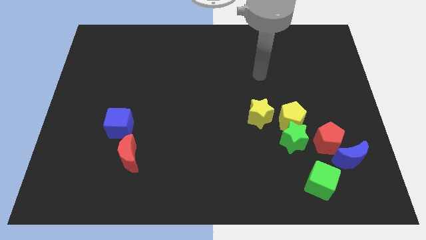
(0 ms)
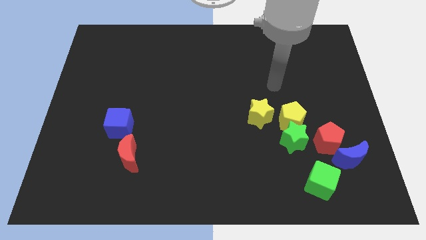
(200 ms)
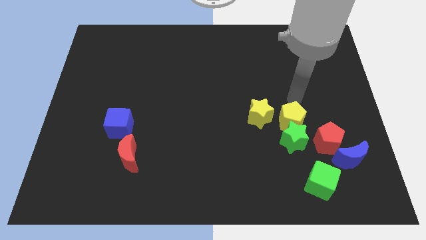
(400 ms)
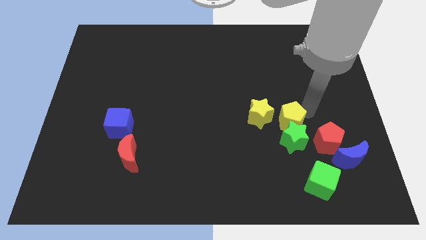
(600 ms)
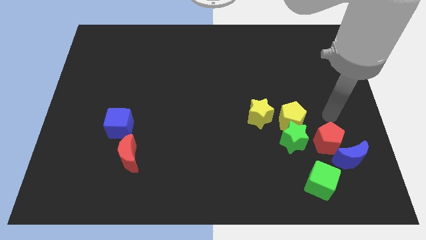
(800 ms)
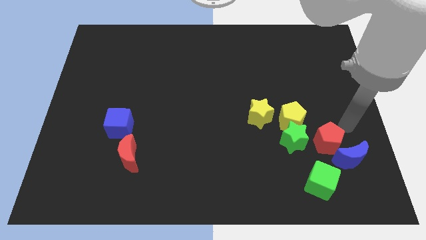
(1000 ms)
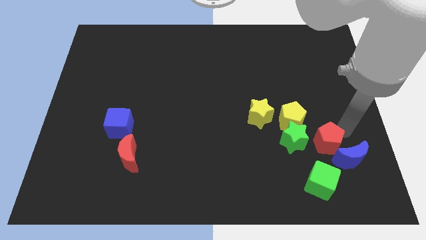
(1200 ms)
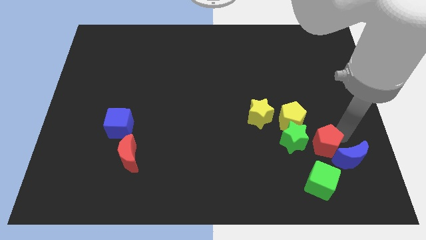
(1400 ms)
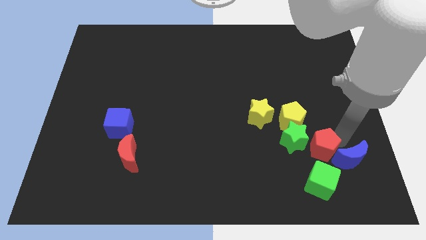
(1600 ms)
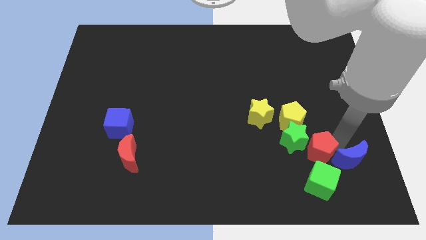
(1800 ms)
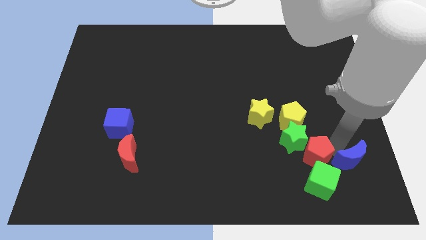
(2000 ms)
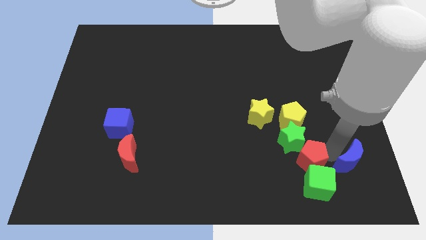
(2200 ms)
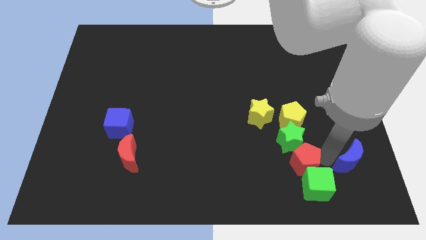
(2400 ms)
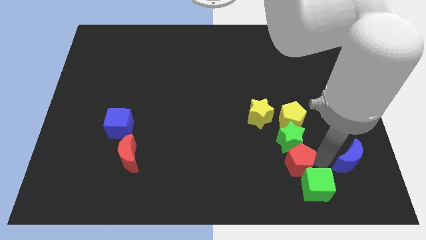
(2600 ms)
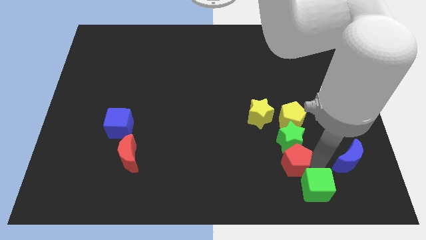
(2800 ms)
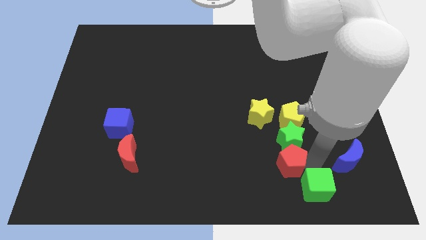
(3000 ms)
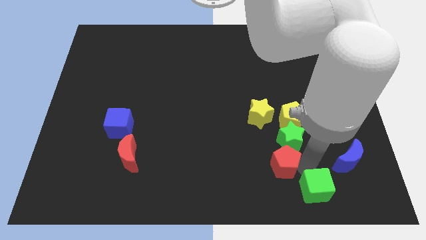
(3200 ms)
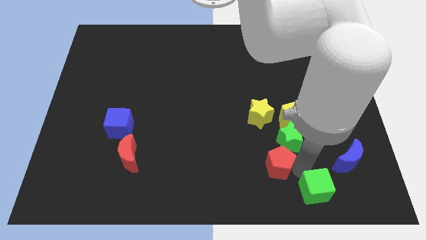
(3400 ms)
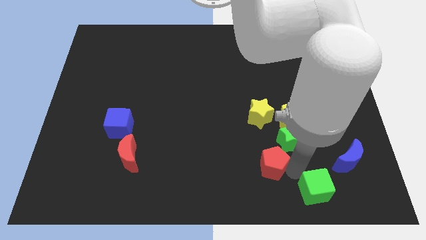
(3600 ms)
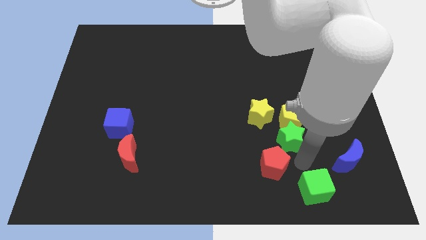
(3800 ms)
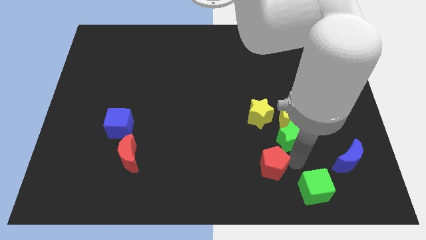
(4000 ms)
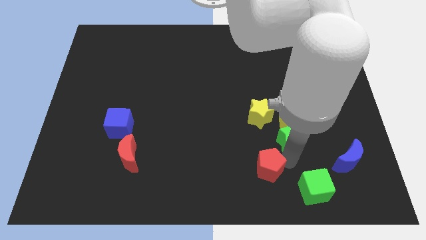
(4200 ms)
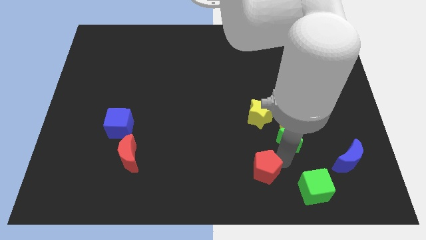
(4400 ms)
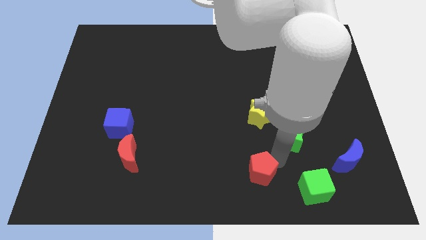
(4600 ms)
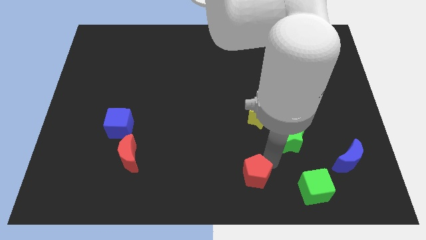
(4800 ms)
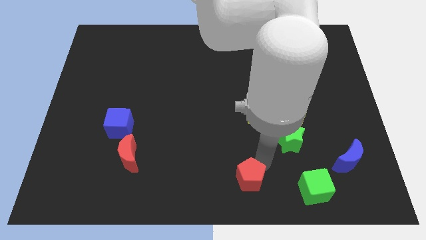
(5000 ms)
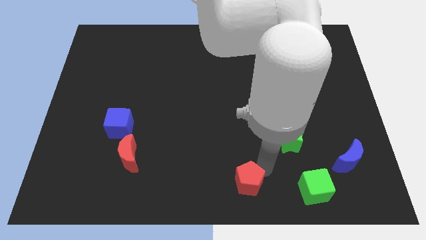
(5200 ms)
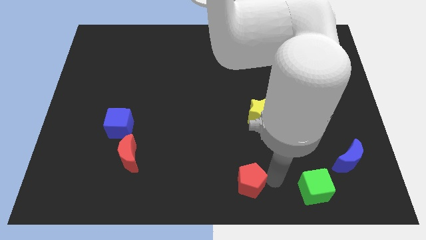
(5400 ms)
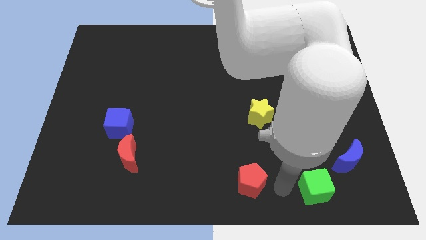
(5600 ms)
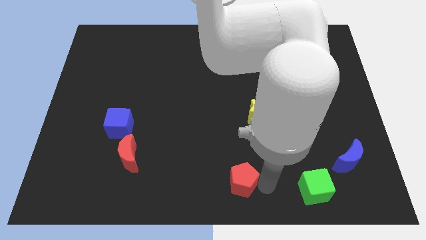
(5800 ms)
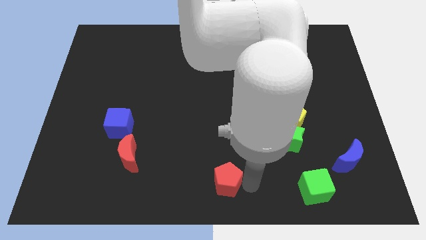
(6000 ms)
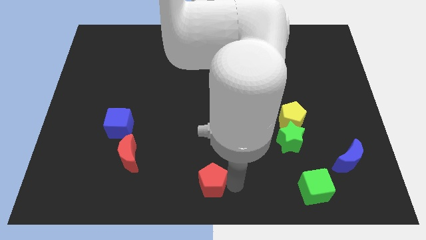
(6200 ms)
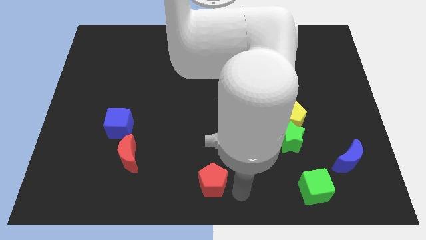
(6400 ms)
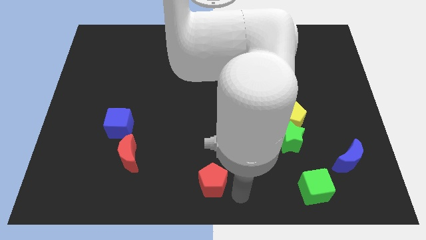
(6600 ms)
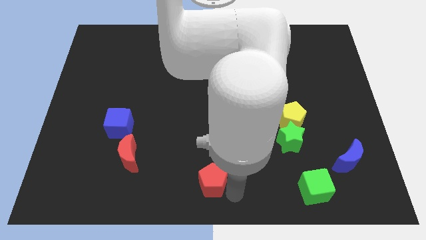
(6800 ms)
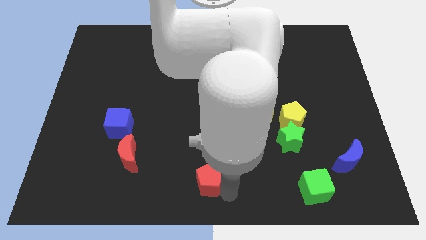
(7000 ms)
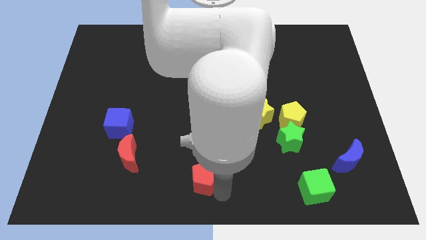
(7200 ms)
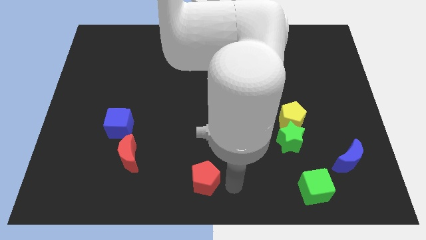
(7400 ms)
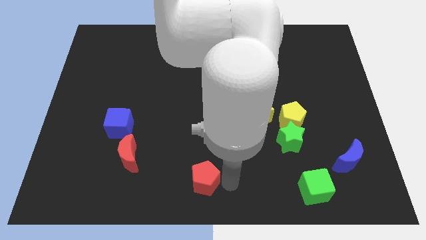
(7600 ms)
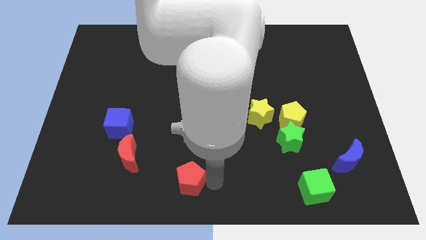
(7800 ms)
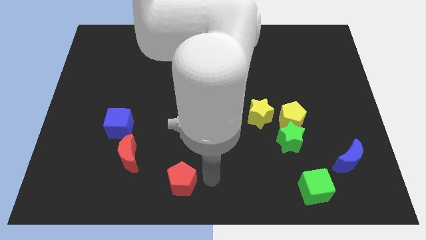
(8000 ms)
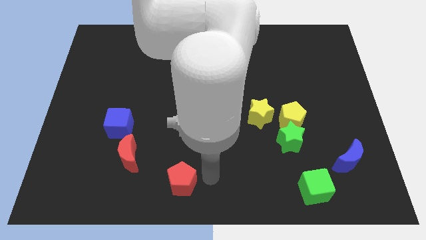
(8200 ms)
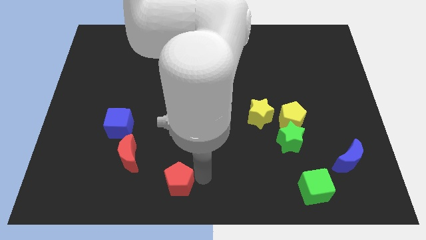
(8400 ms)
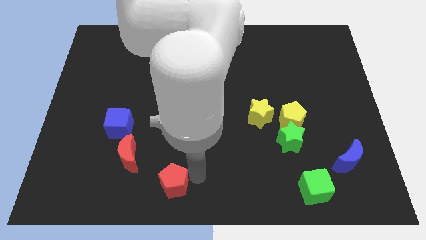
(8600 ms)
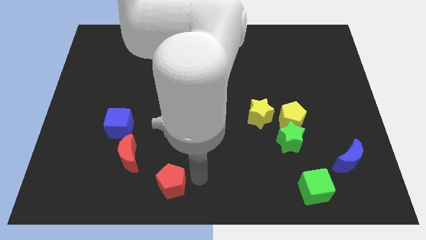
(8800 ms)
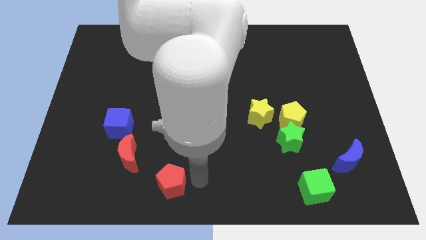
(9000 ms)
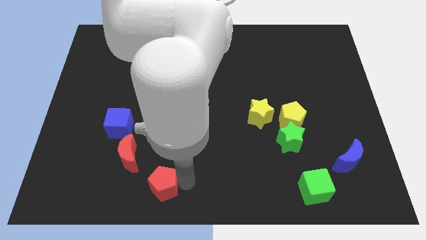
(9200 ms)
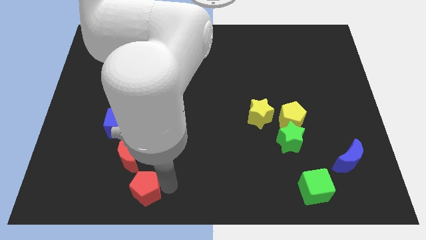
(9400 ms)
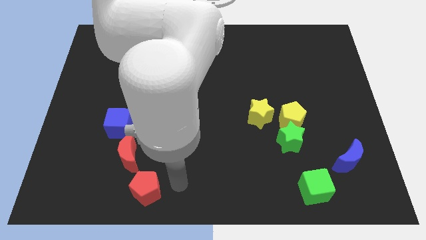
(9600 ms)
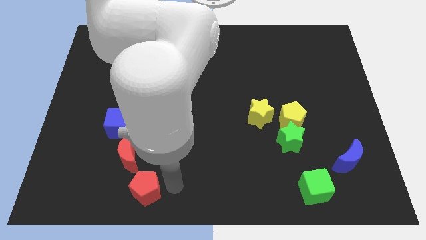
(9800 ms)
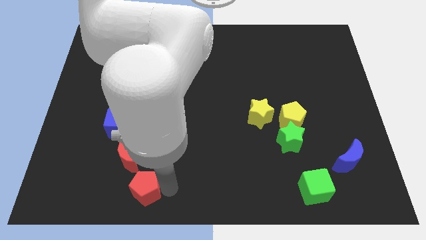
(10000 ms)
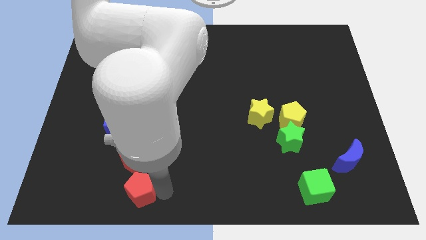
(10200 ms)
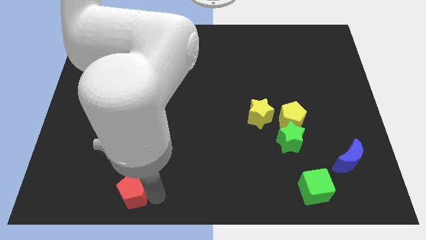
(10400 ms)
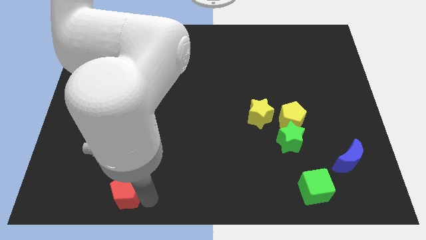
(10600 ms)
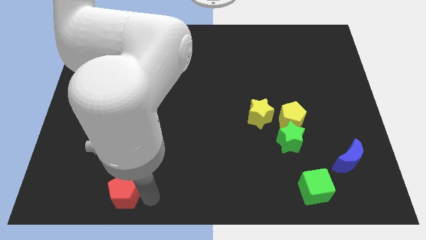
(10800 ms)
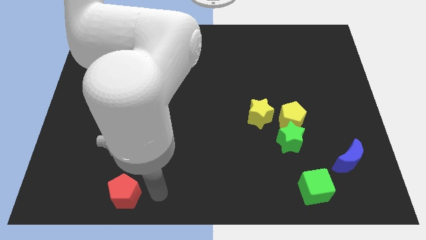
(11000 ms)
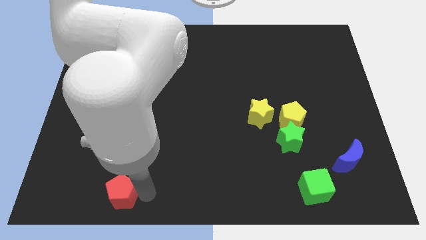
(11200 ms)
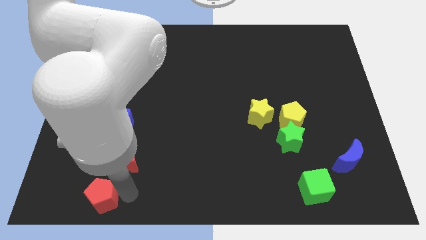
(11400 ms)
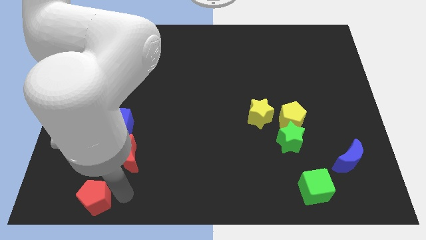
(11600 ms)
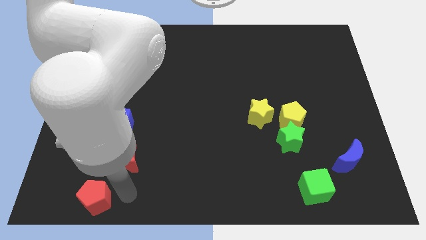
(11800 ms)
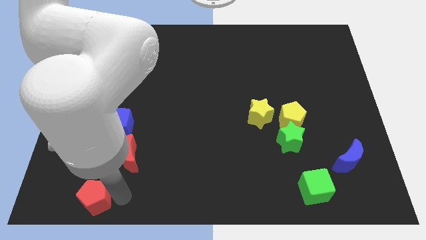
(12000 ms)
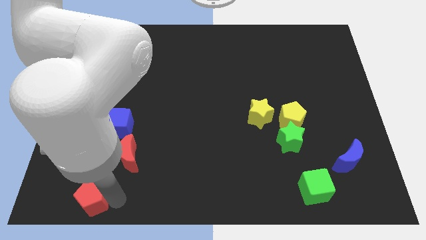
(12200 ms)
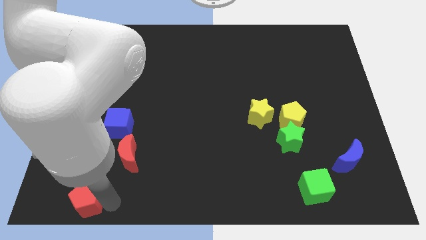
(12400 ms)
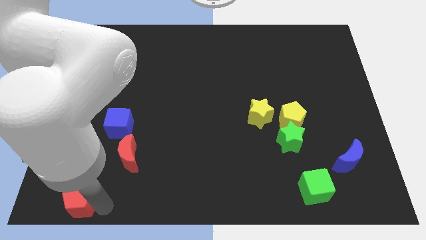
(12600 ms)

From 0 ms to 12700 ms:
move the red pentagon to the bottom left of the board

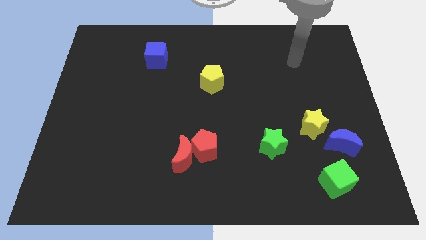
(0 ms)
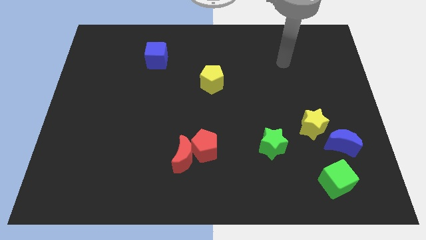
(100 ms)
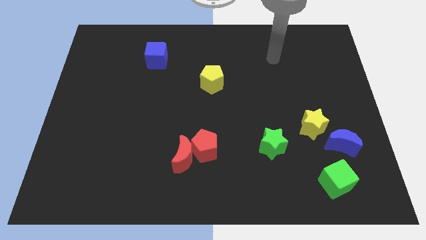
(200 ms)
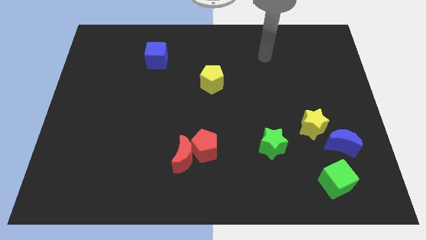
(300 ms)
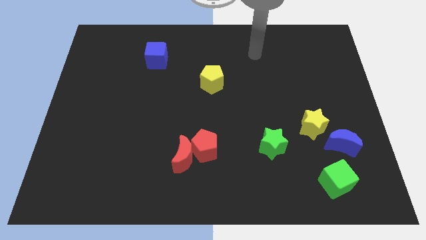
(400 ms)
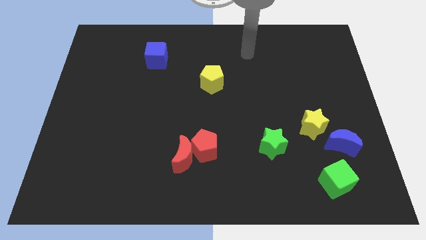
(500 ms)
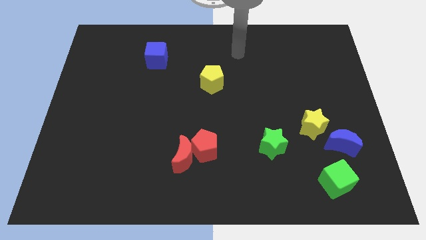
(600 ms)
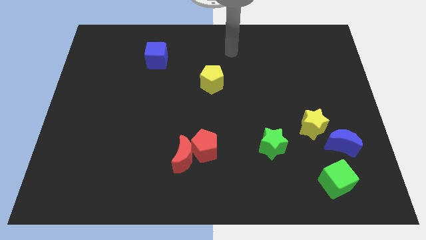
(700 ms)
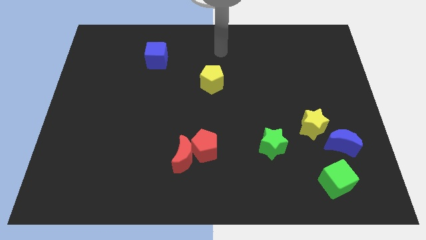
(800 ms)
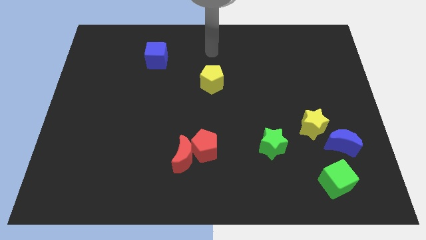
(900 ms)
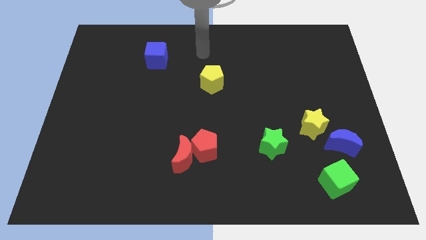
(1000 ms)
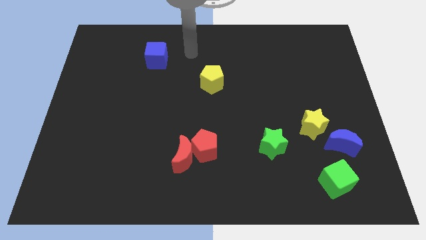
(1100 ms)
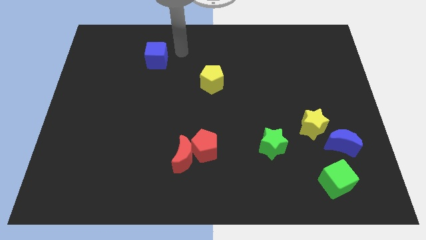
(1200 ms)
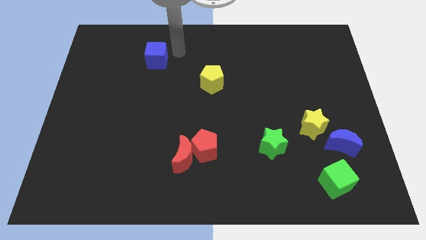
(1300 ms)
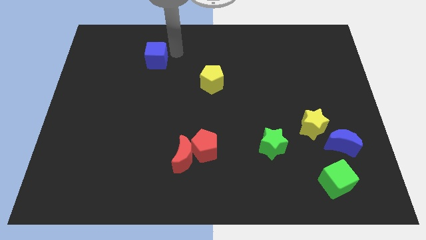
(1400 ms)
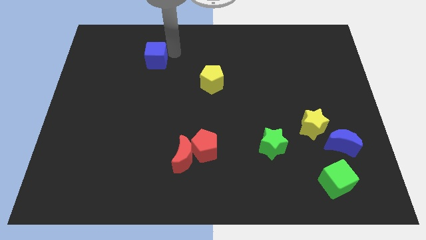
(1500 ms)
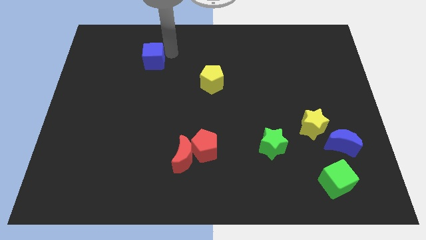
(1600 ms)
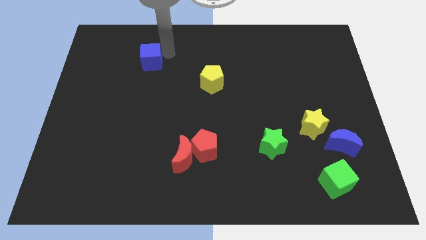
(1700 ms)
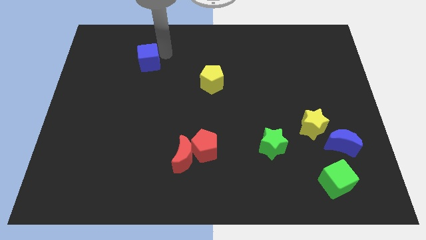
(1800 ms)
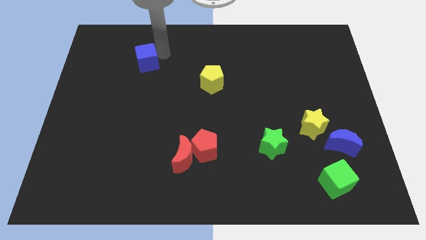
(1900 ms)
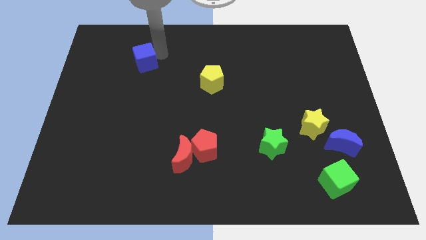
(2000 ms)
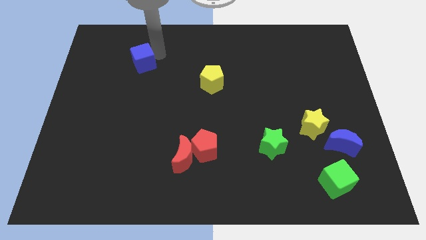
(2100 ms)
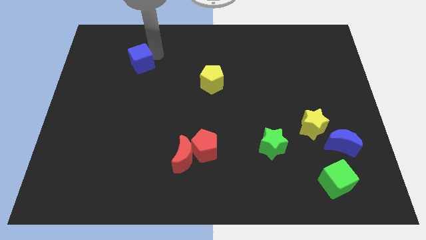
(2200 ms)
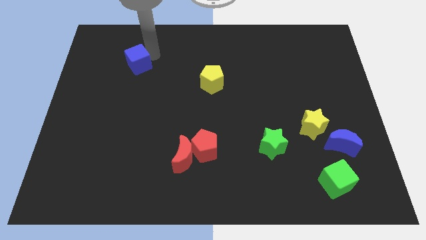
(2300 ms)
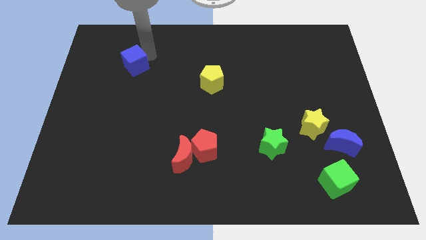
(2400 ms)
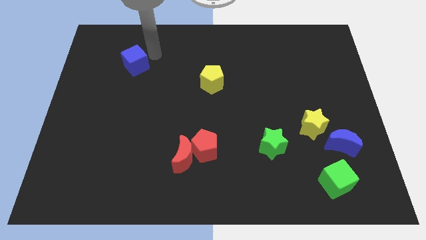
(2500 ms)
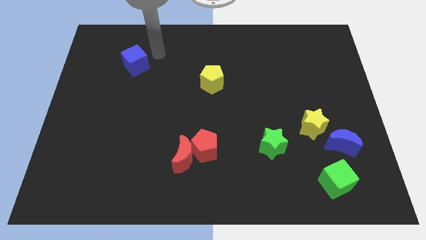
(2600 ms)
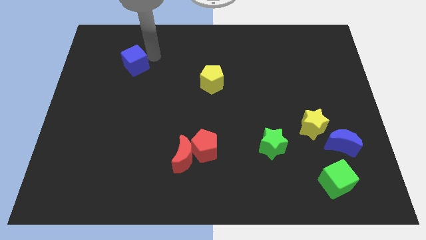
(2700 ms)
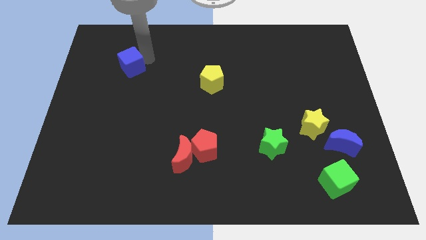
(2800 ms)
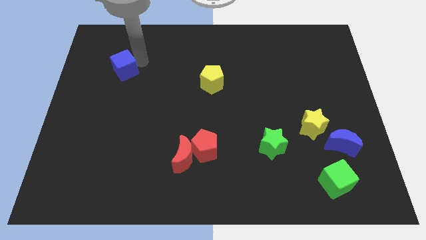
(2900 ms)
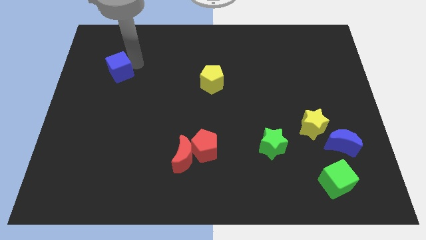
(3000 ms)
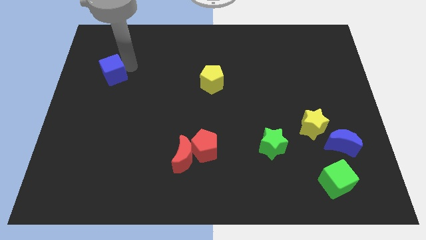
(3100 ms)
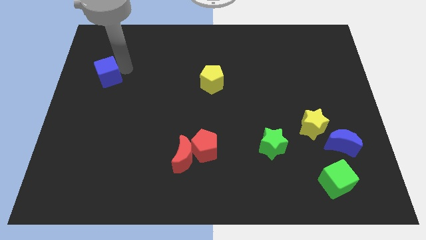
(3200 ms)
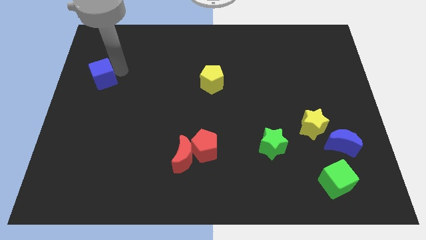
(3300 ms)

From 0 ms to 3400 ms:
slide the blue cube to the left side of the board
